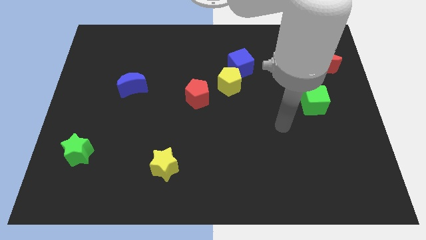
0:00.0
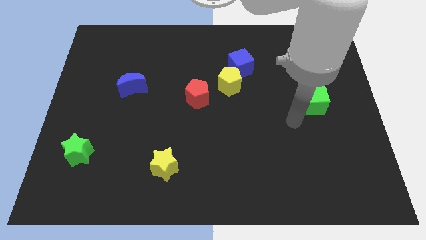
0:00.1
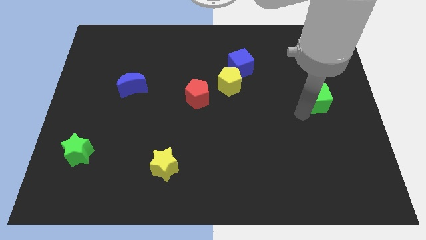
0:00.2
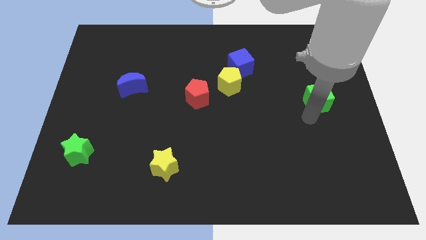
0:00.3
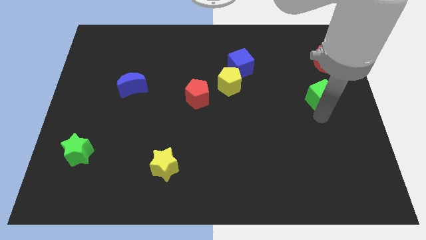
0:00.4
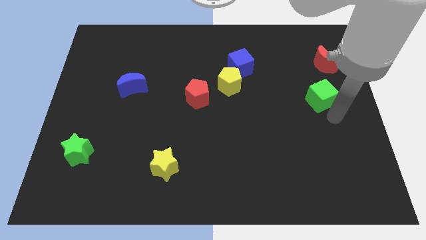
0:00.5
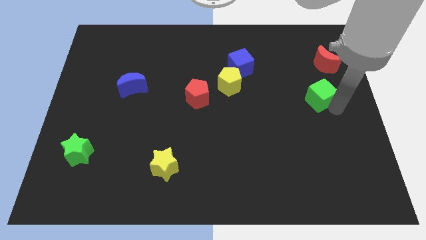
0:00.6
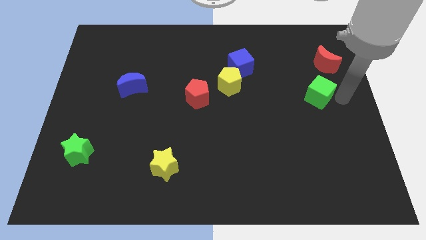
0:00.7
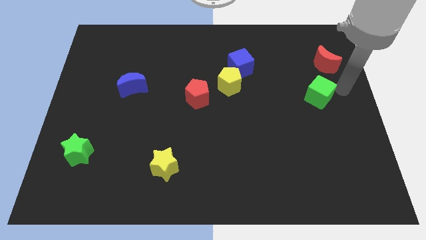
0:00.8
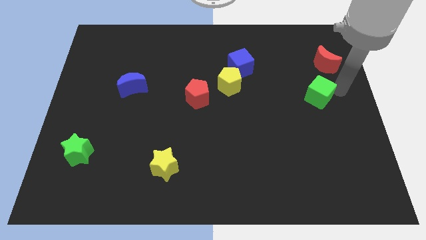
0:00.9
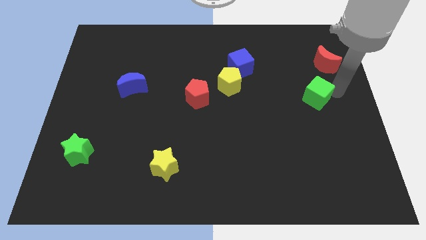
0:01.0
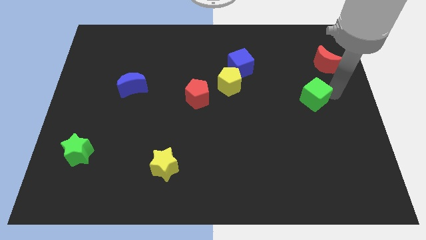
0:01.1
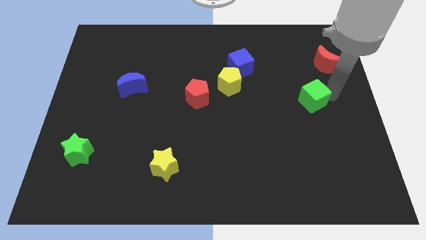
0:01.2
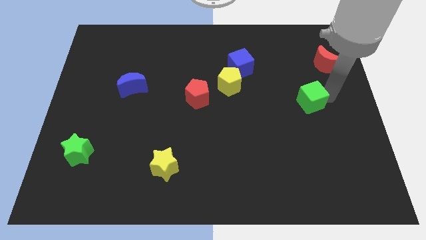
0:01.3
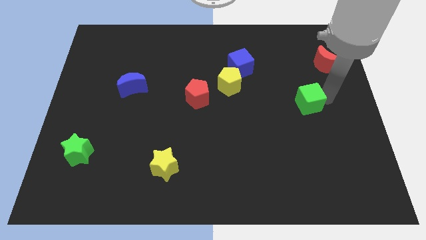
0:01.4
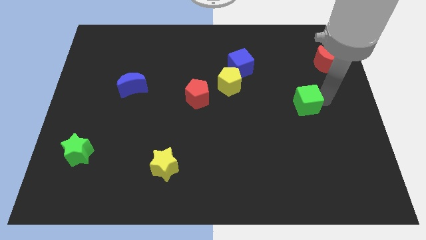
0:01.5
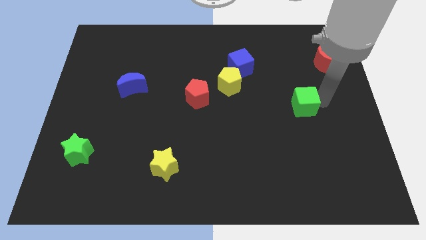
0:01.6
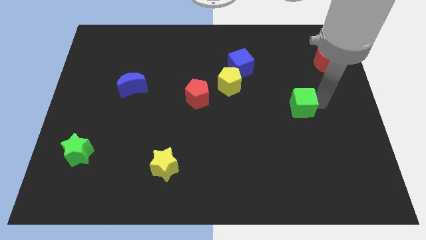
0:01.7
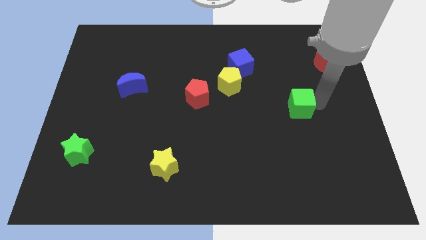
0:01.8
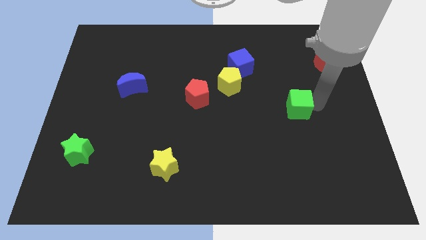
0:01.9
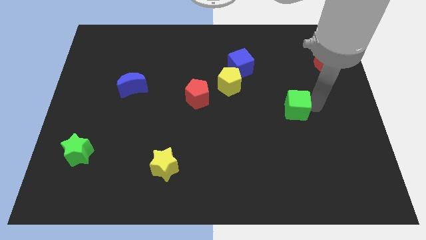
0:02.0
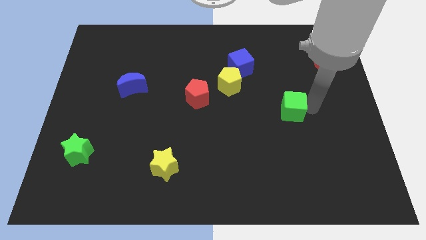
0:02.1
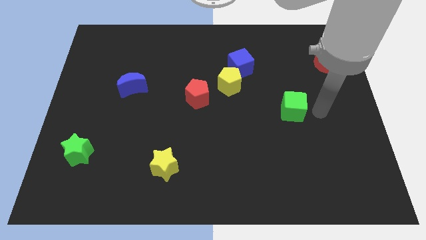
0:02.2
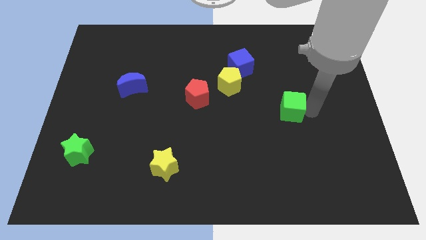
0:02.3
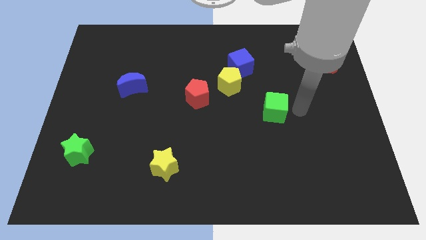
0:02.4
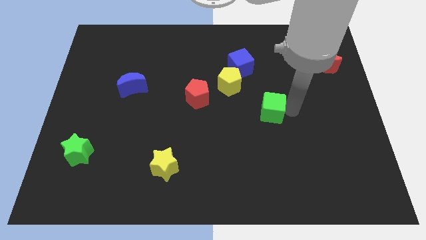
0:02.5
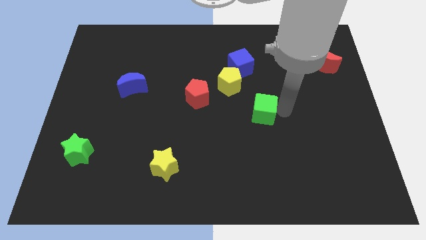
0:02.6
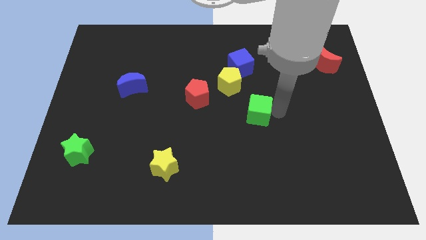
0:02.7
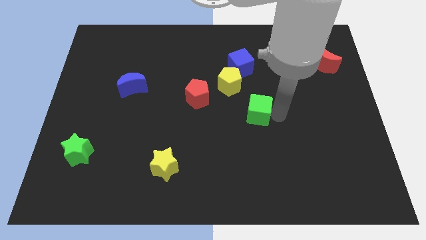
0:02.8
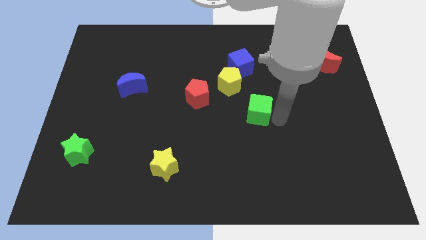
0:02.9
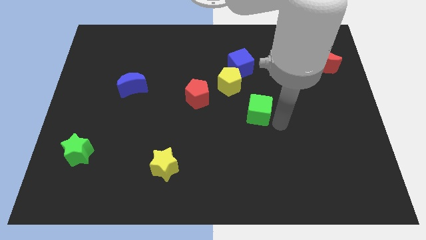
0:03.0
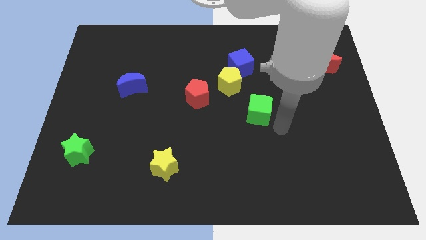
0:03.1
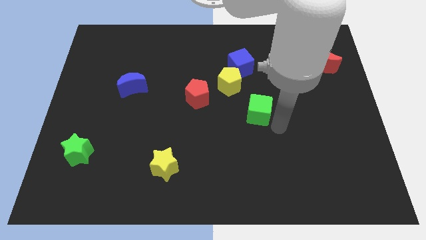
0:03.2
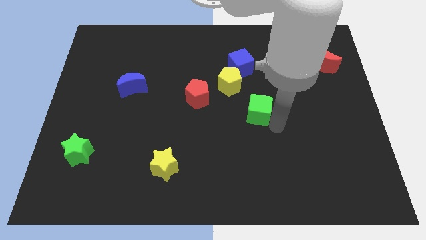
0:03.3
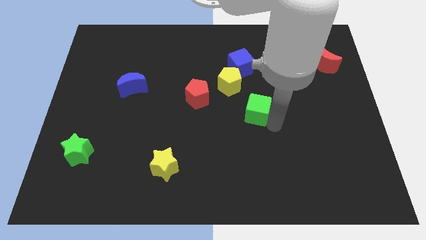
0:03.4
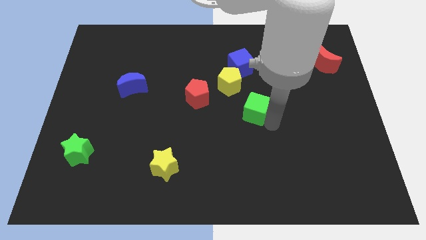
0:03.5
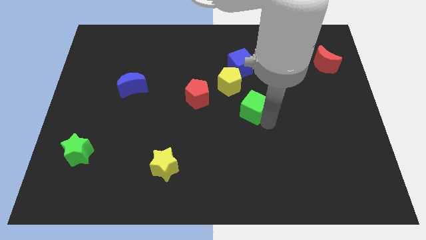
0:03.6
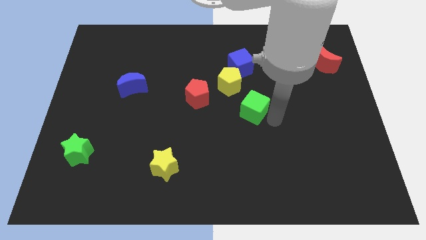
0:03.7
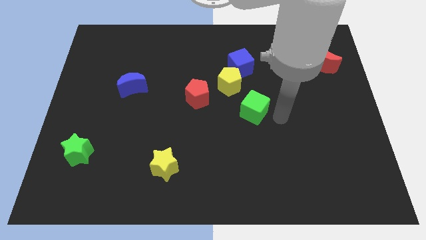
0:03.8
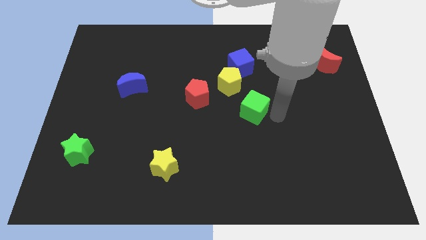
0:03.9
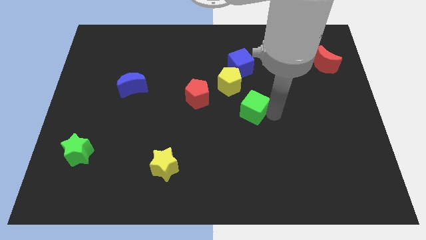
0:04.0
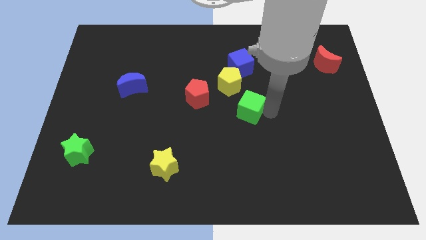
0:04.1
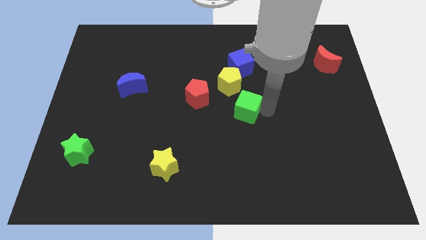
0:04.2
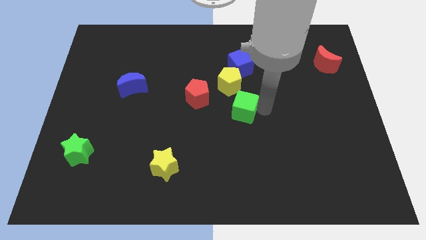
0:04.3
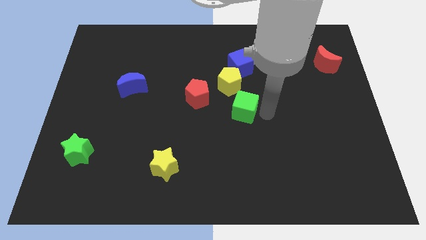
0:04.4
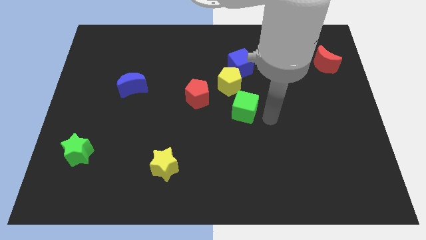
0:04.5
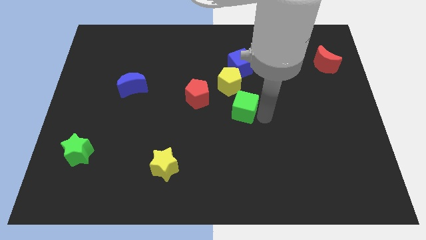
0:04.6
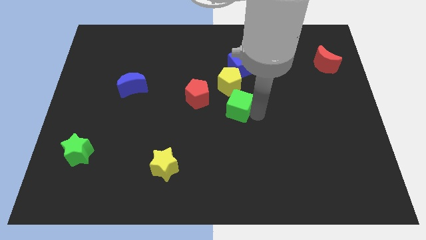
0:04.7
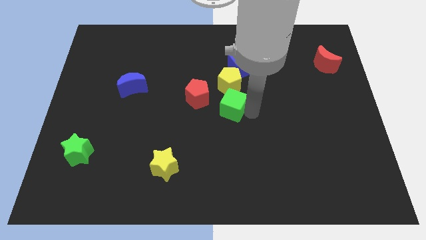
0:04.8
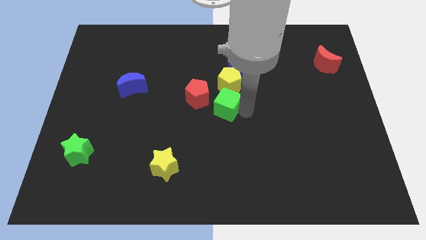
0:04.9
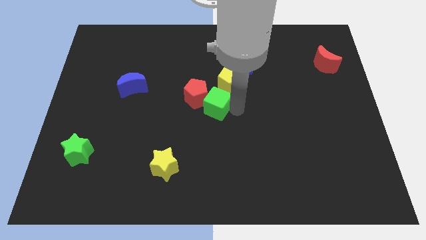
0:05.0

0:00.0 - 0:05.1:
put the green cube towards the red pentagon

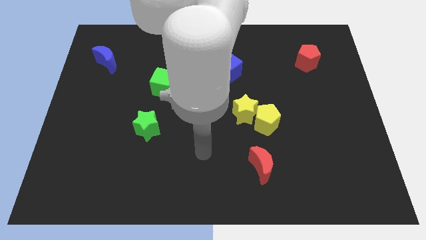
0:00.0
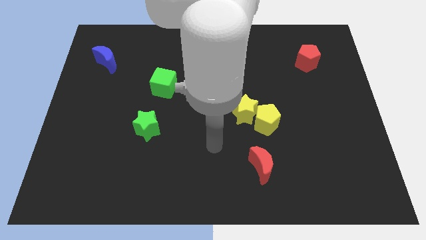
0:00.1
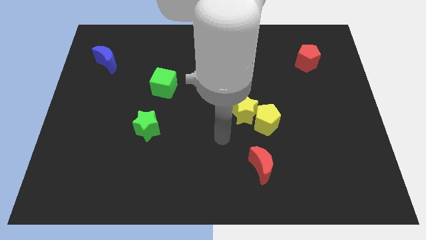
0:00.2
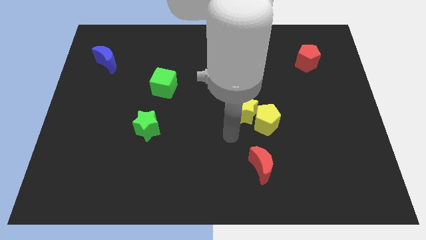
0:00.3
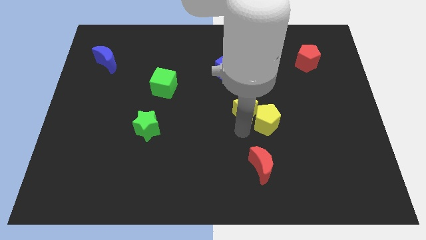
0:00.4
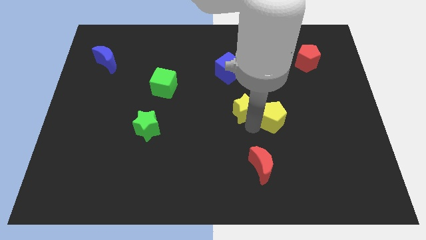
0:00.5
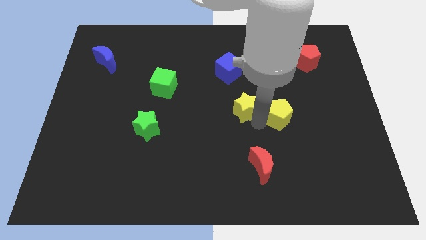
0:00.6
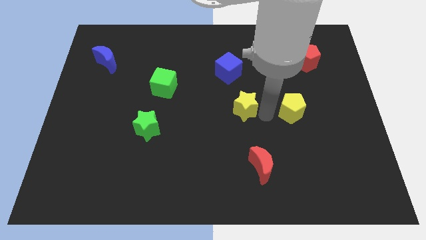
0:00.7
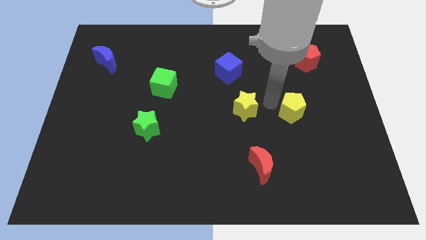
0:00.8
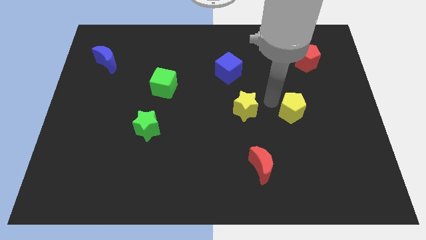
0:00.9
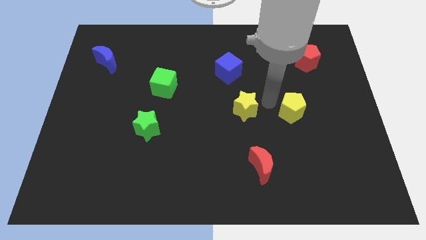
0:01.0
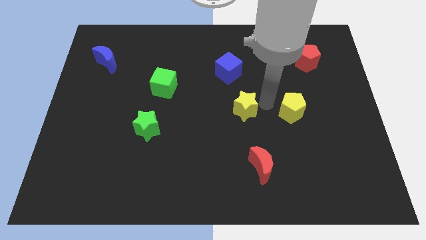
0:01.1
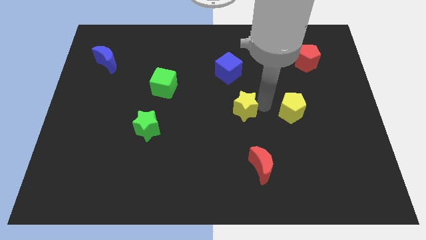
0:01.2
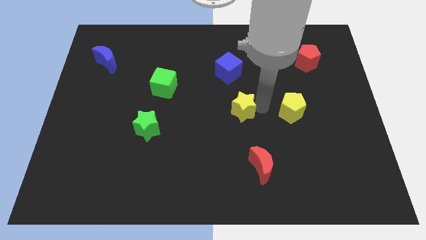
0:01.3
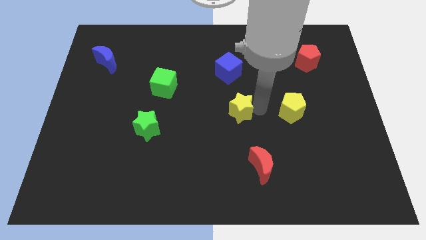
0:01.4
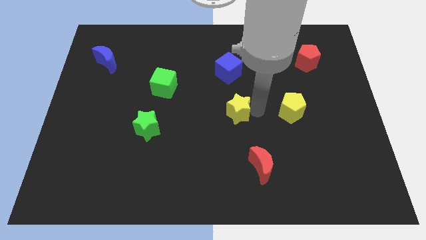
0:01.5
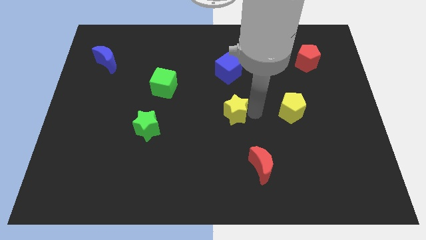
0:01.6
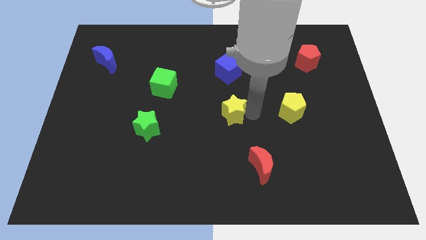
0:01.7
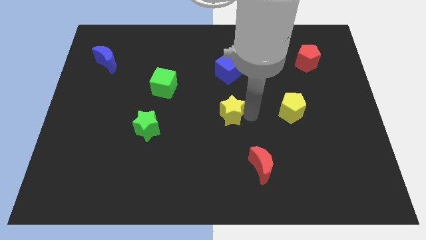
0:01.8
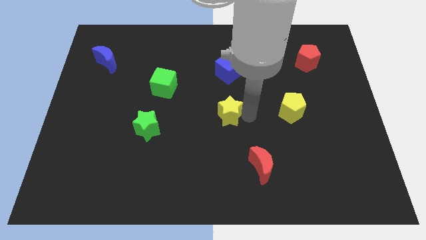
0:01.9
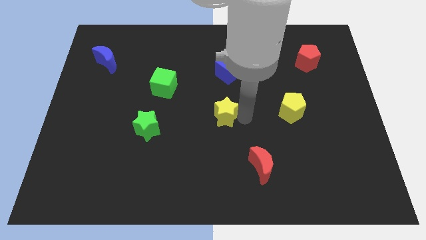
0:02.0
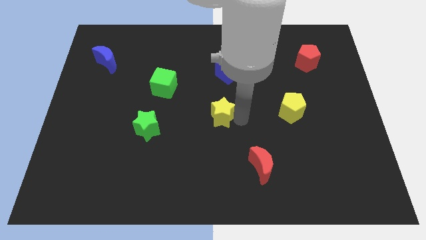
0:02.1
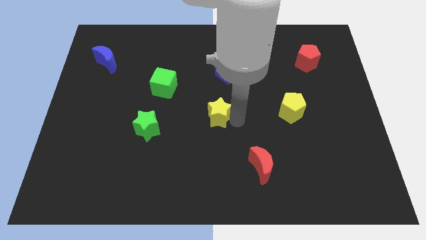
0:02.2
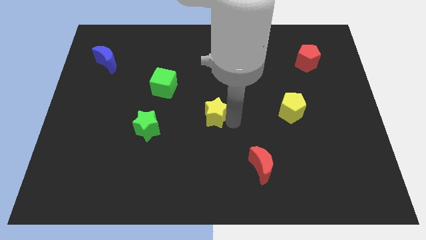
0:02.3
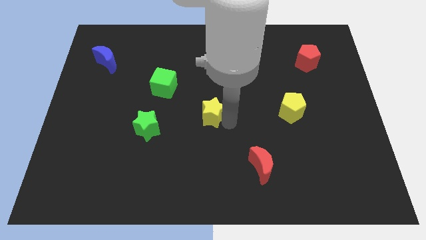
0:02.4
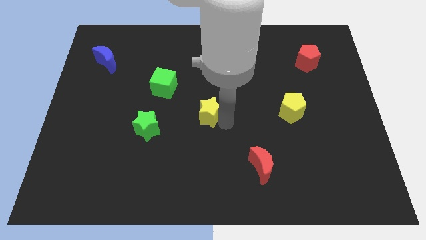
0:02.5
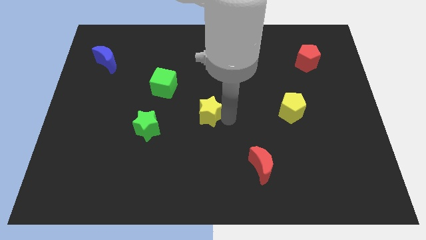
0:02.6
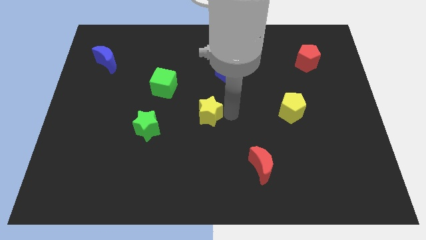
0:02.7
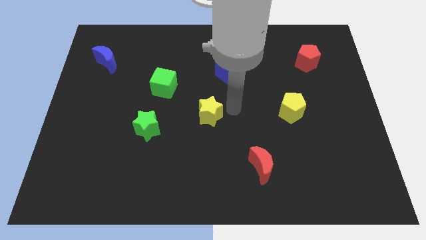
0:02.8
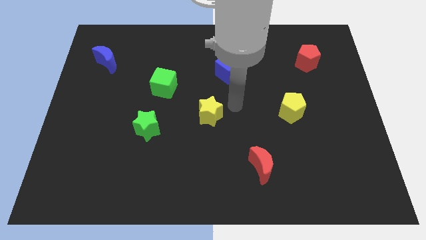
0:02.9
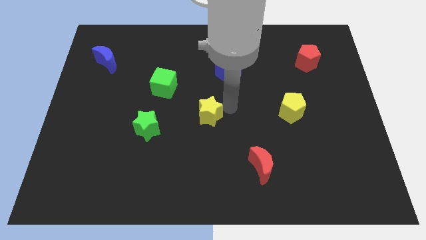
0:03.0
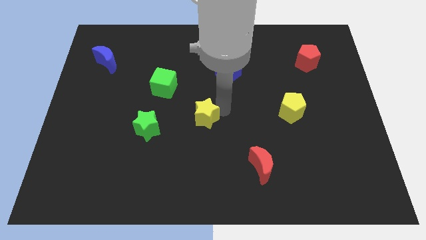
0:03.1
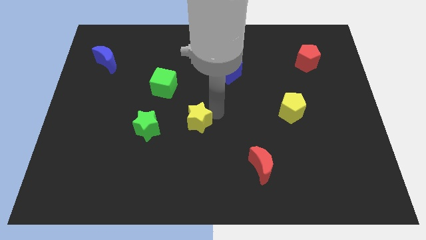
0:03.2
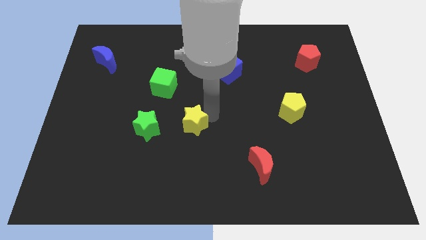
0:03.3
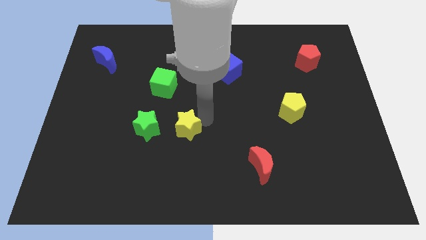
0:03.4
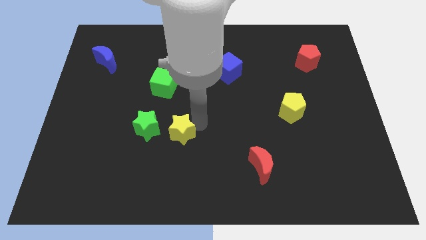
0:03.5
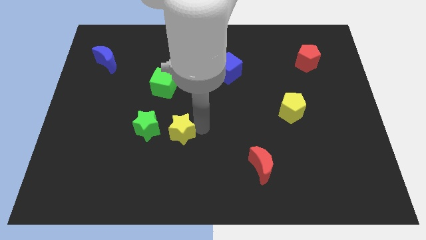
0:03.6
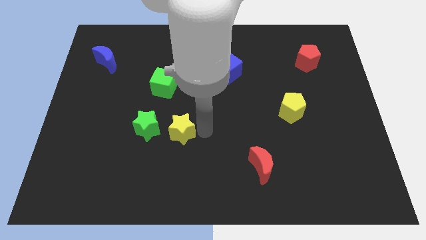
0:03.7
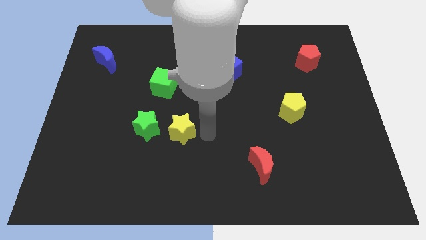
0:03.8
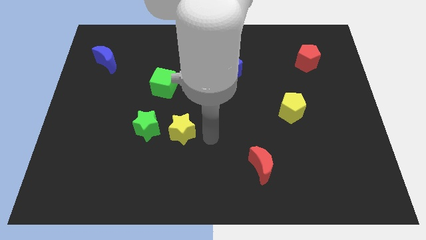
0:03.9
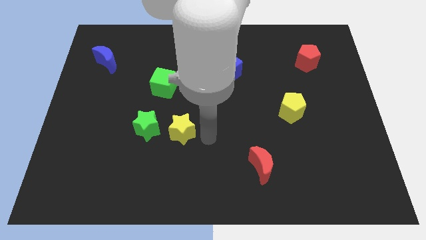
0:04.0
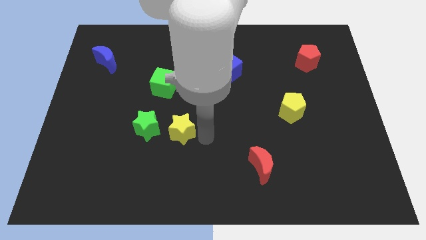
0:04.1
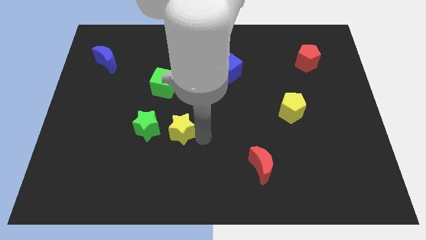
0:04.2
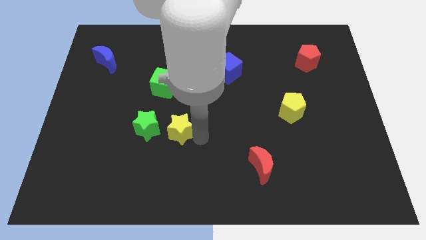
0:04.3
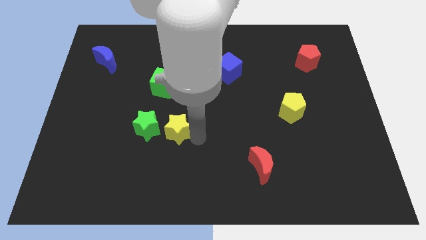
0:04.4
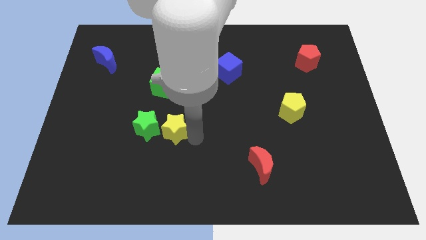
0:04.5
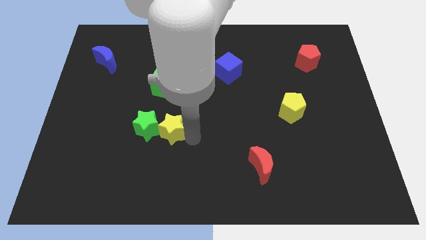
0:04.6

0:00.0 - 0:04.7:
put the yellow star towards the green star
